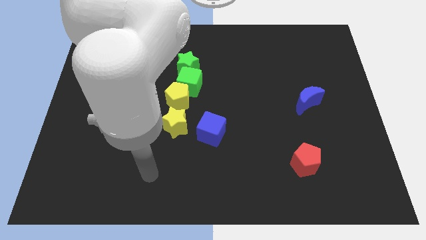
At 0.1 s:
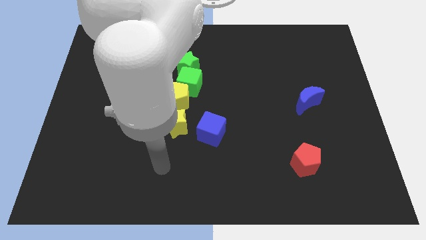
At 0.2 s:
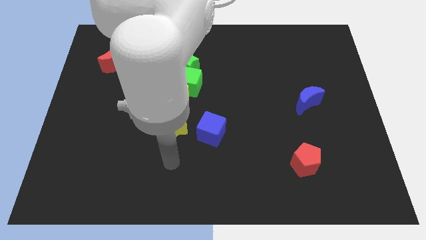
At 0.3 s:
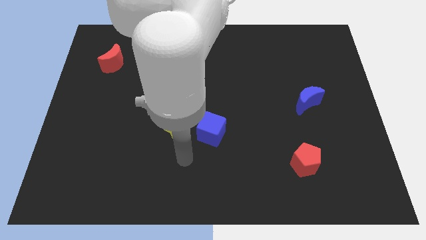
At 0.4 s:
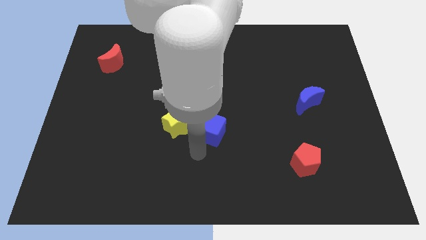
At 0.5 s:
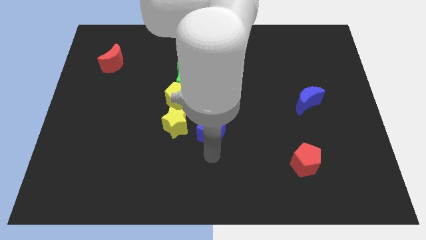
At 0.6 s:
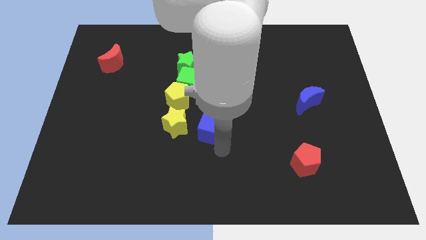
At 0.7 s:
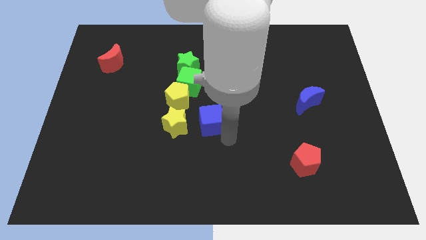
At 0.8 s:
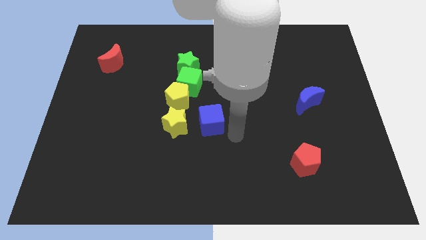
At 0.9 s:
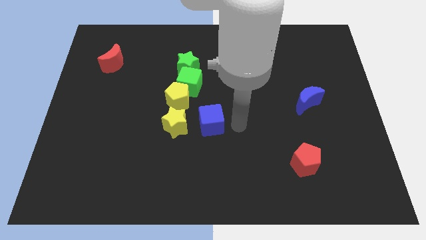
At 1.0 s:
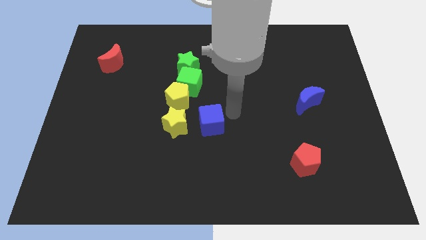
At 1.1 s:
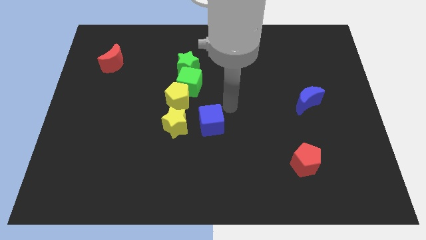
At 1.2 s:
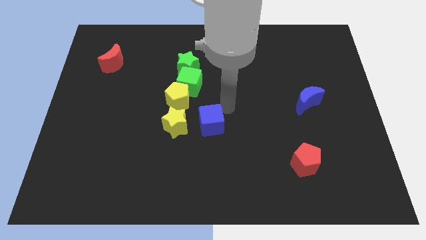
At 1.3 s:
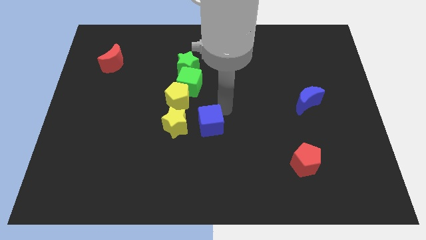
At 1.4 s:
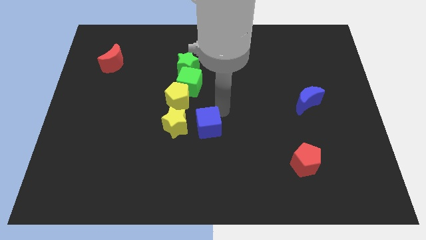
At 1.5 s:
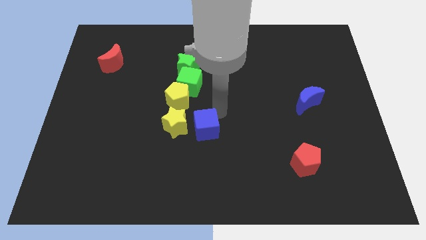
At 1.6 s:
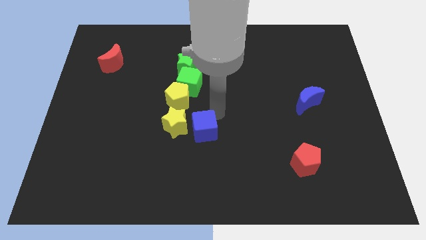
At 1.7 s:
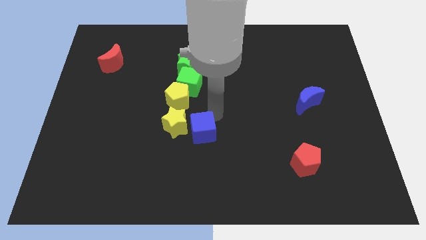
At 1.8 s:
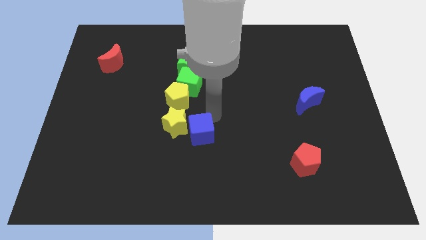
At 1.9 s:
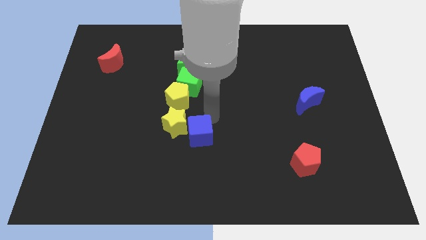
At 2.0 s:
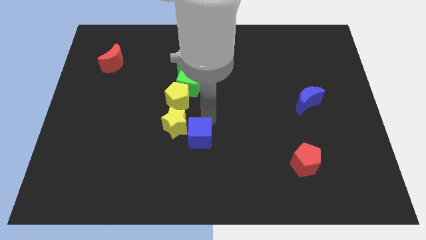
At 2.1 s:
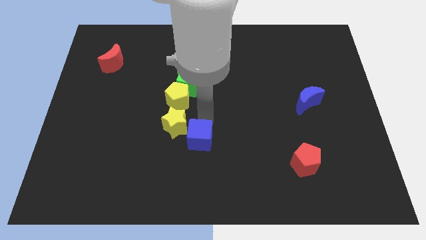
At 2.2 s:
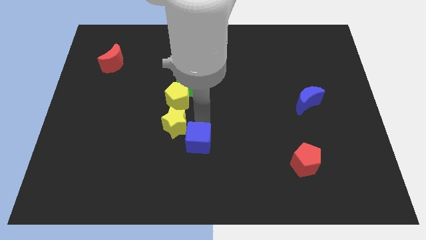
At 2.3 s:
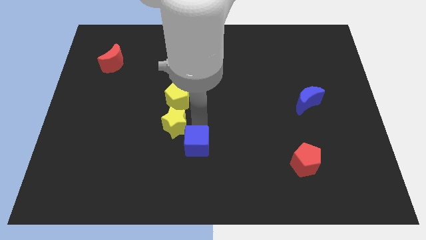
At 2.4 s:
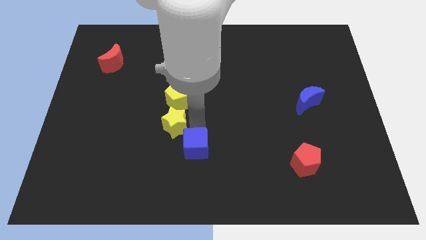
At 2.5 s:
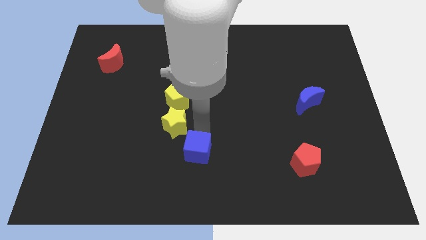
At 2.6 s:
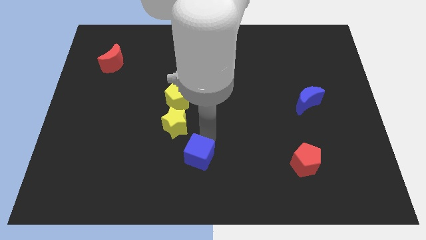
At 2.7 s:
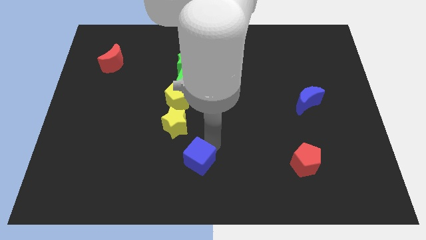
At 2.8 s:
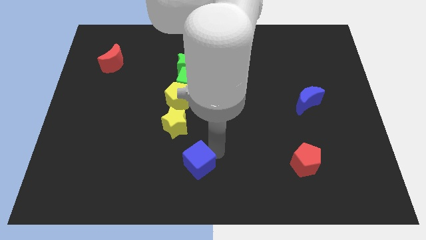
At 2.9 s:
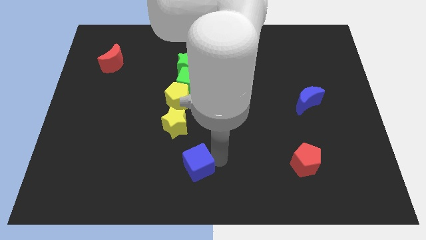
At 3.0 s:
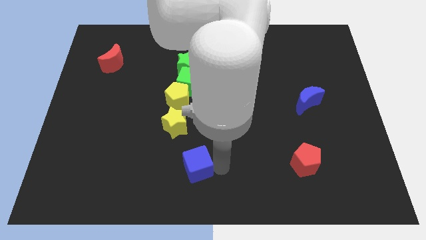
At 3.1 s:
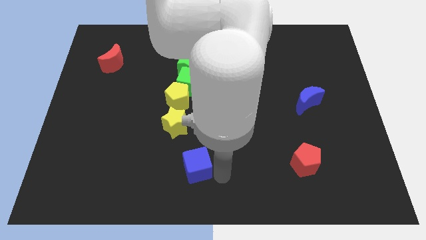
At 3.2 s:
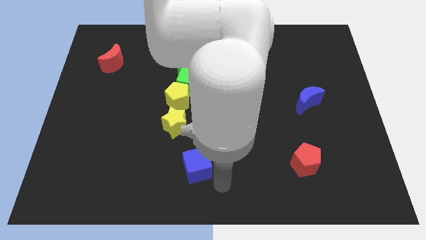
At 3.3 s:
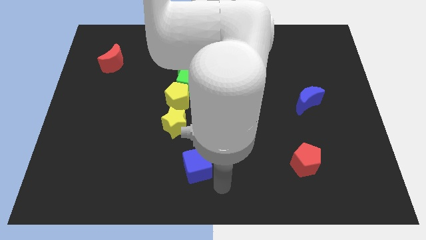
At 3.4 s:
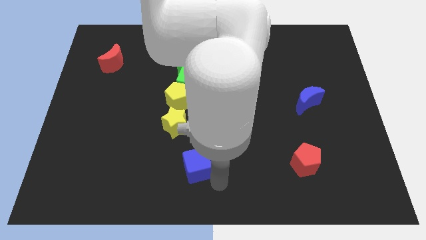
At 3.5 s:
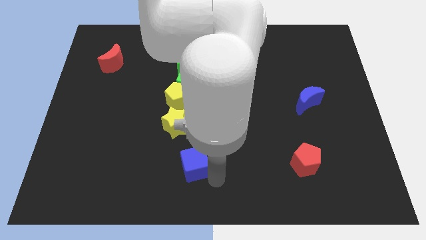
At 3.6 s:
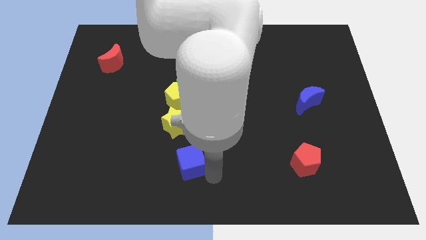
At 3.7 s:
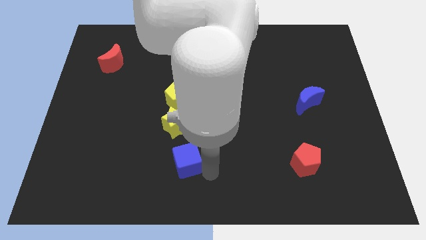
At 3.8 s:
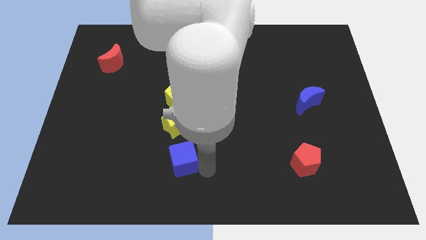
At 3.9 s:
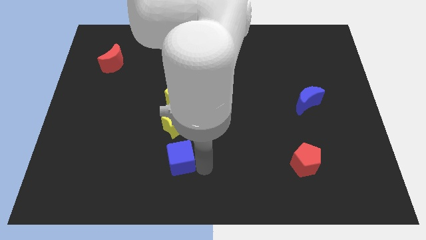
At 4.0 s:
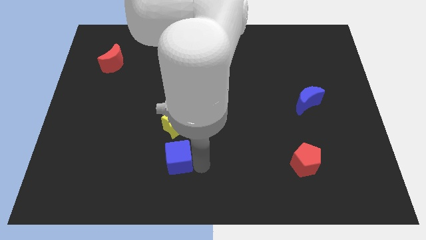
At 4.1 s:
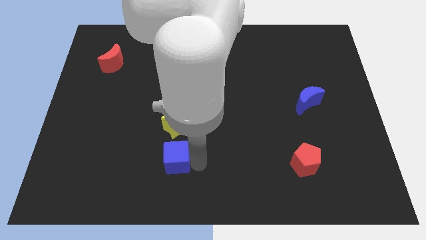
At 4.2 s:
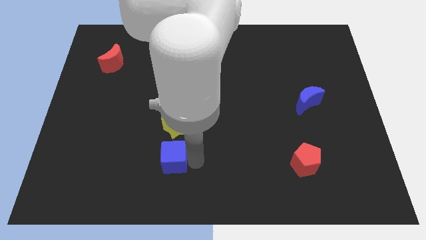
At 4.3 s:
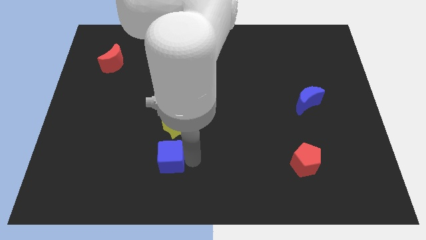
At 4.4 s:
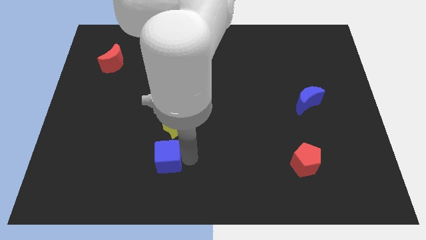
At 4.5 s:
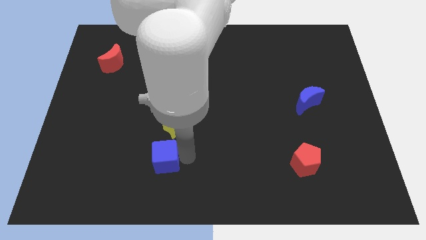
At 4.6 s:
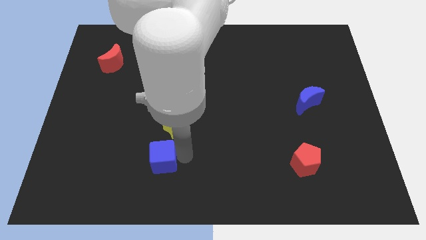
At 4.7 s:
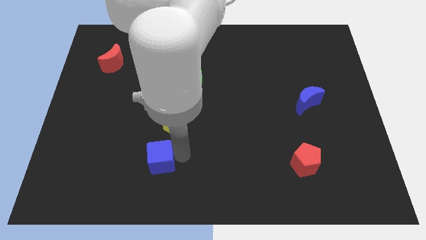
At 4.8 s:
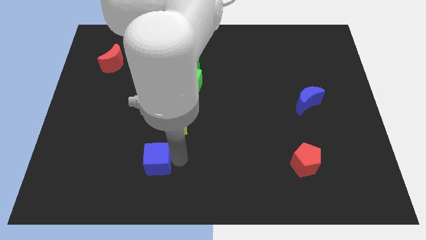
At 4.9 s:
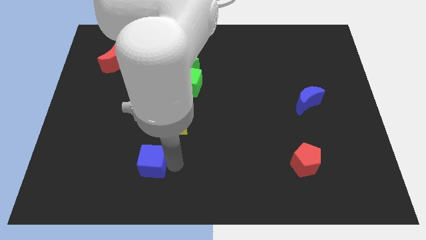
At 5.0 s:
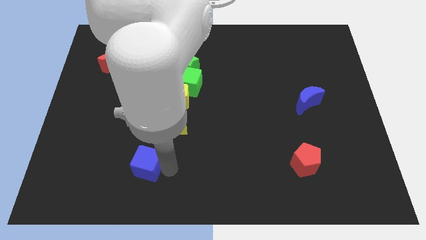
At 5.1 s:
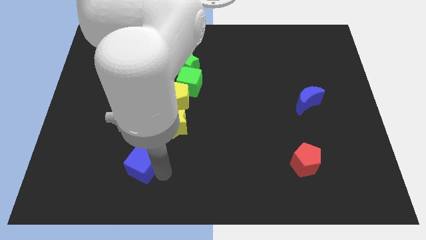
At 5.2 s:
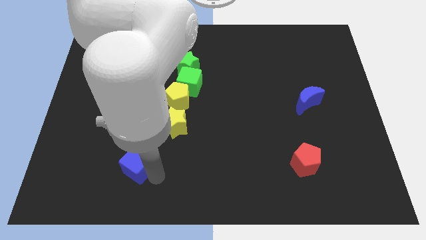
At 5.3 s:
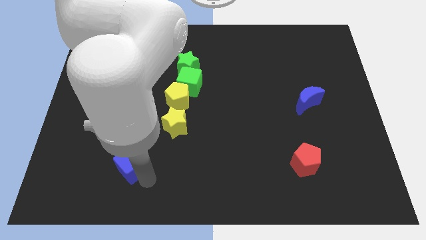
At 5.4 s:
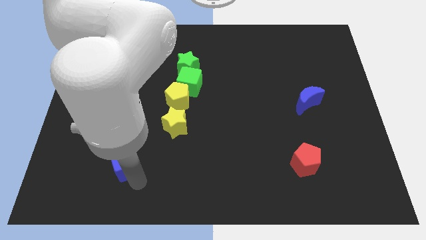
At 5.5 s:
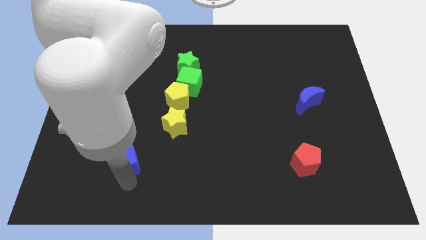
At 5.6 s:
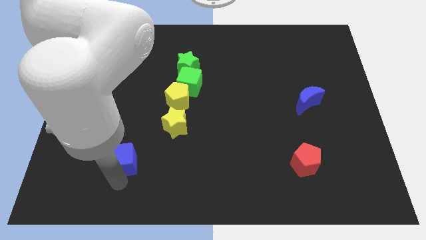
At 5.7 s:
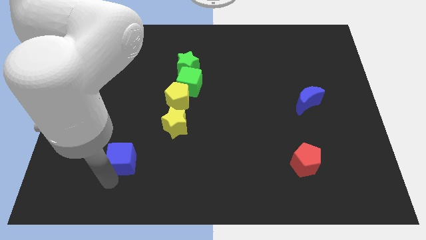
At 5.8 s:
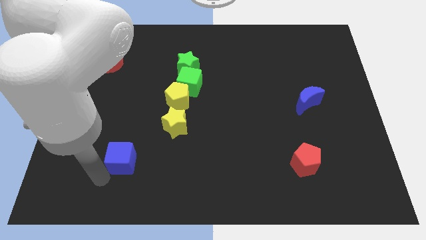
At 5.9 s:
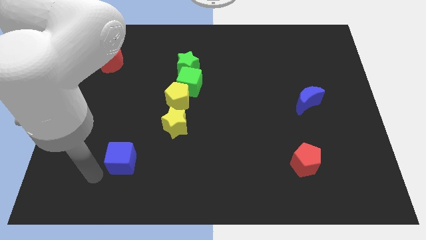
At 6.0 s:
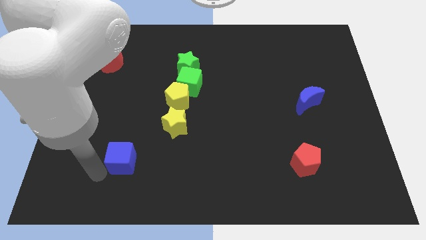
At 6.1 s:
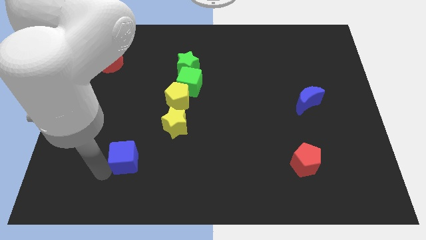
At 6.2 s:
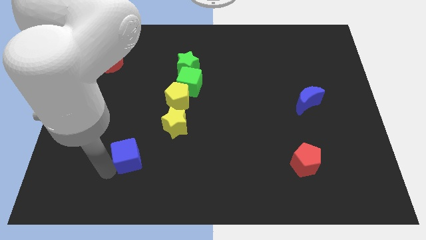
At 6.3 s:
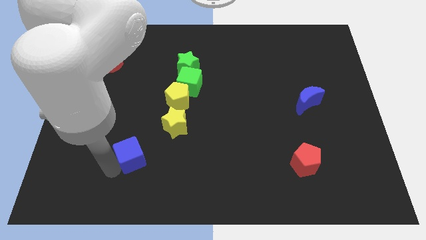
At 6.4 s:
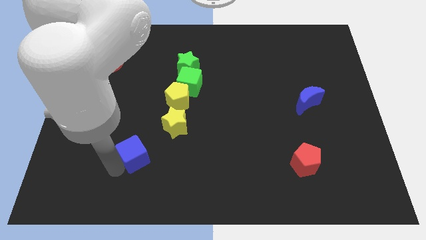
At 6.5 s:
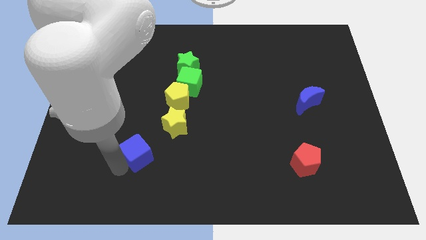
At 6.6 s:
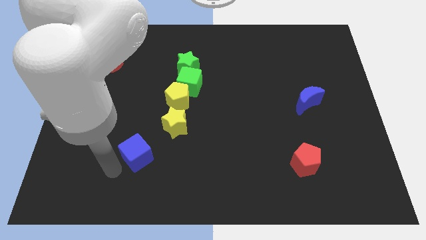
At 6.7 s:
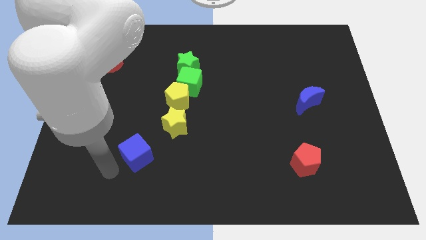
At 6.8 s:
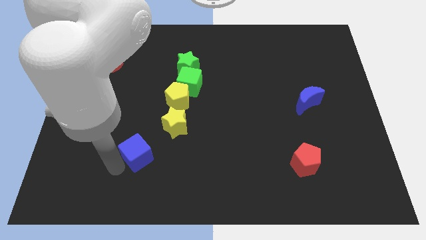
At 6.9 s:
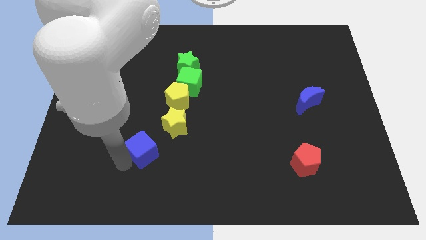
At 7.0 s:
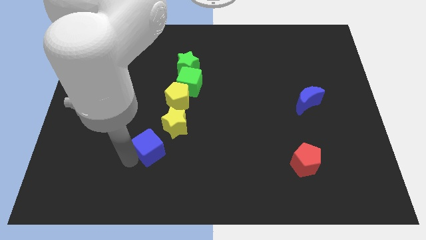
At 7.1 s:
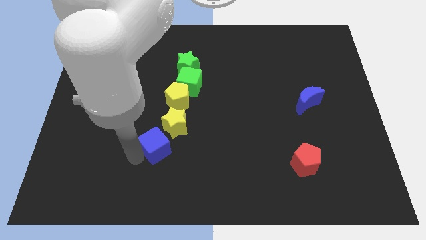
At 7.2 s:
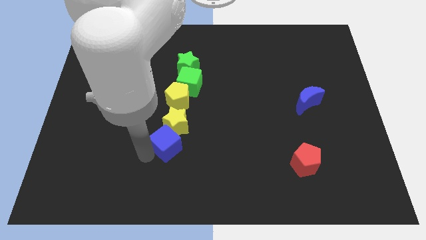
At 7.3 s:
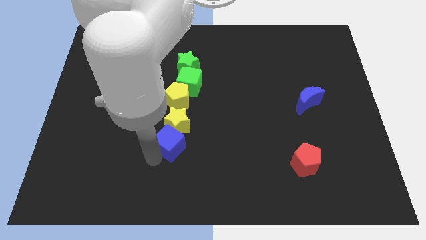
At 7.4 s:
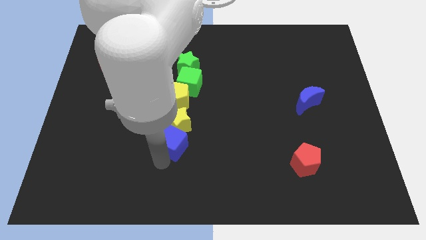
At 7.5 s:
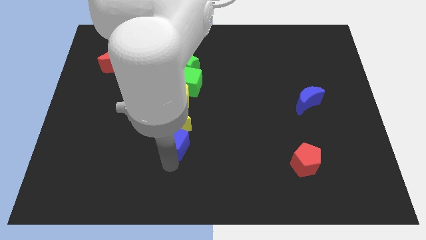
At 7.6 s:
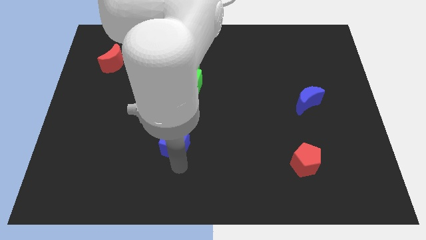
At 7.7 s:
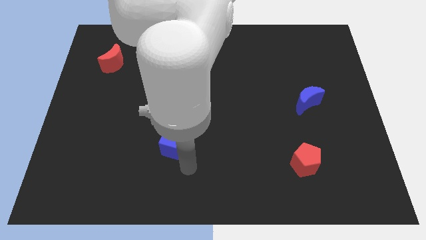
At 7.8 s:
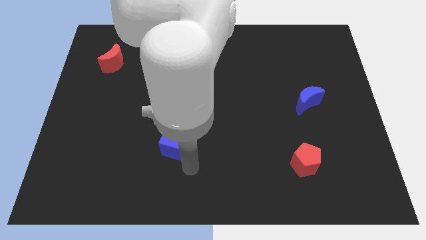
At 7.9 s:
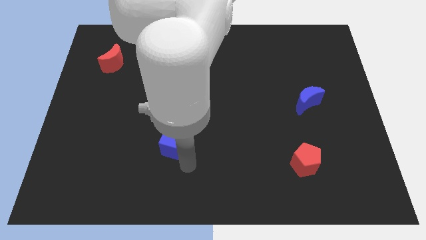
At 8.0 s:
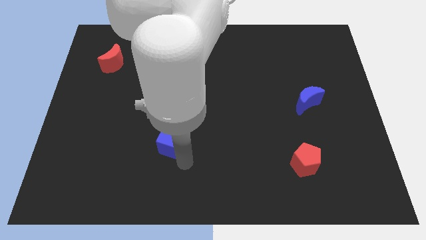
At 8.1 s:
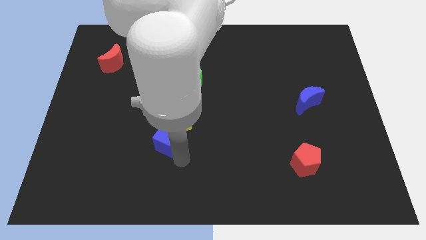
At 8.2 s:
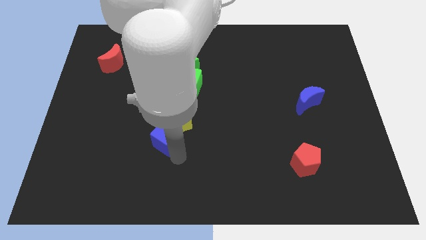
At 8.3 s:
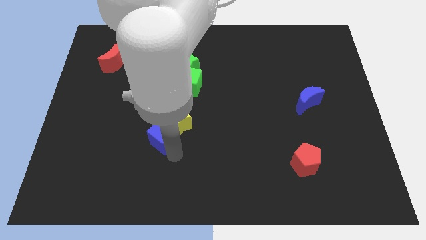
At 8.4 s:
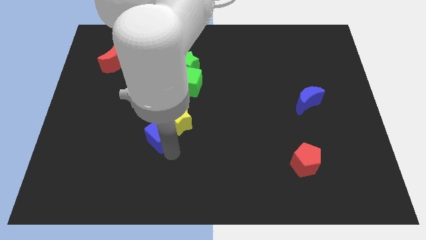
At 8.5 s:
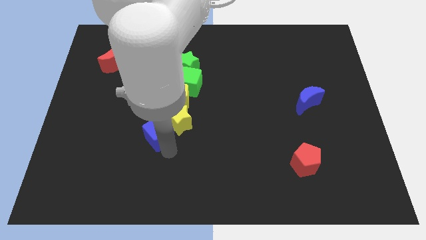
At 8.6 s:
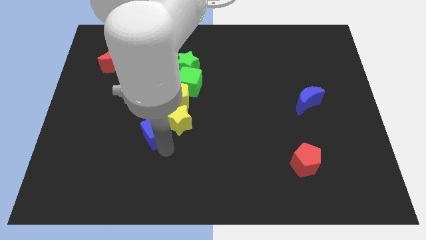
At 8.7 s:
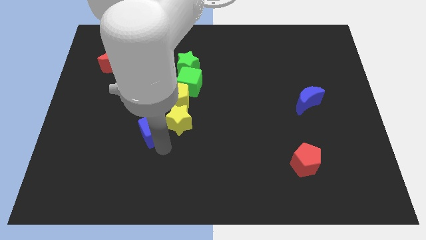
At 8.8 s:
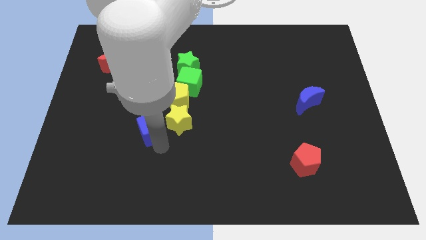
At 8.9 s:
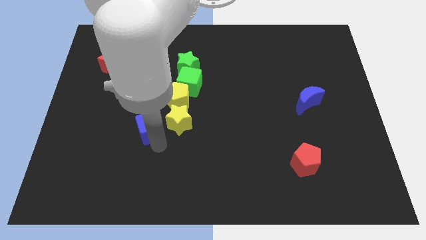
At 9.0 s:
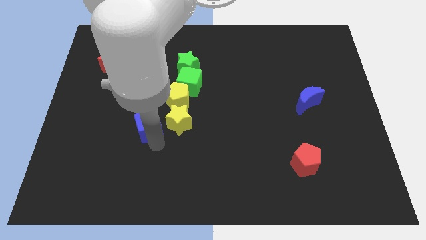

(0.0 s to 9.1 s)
slide the blue cube a bit diagonally up and left
